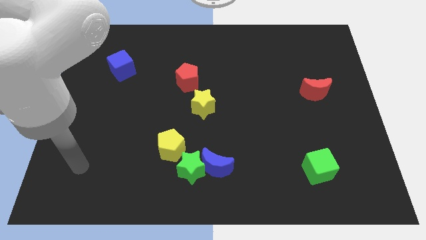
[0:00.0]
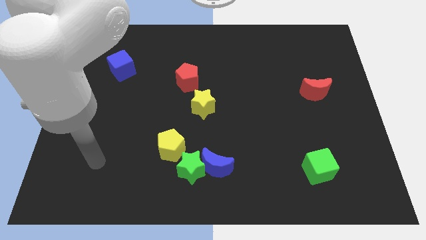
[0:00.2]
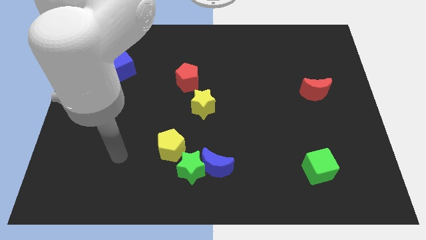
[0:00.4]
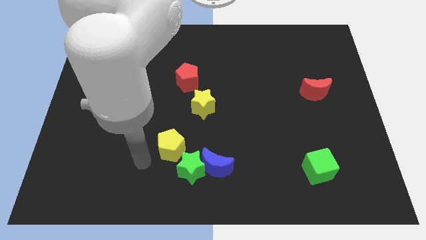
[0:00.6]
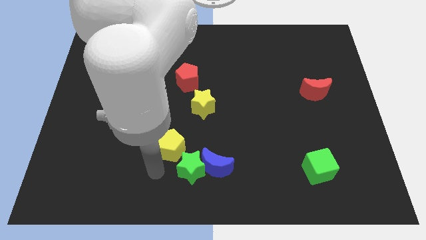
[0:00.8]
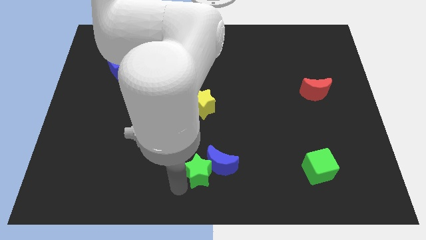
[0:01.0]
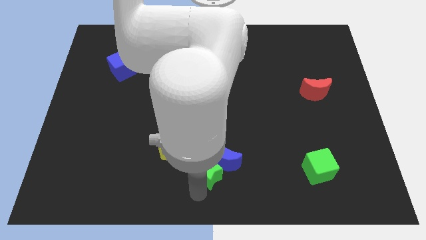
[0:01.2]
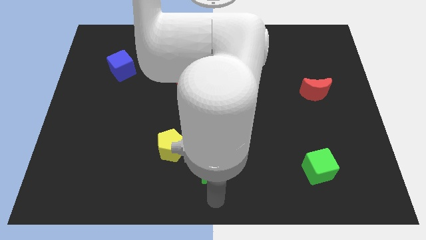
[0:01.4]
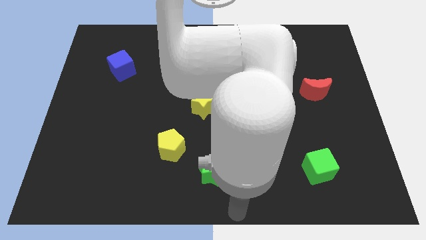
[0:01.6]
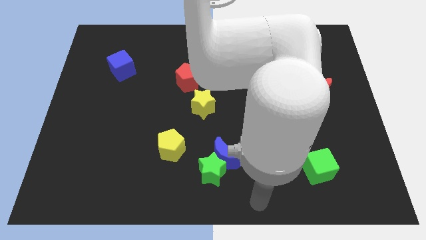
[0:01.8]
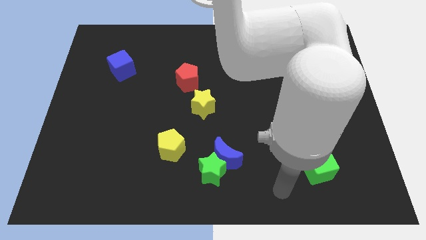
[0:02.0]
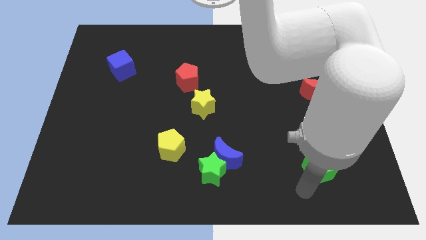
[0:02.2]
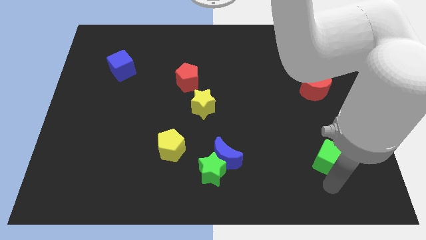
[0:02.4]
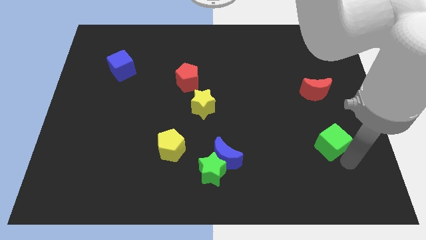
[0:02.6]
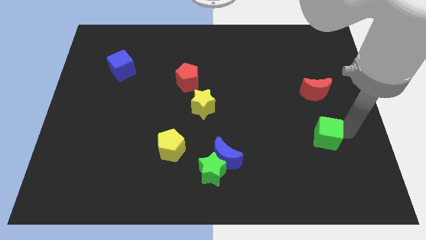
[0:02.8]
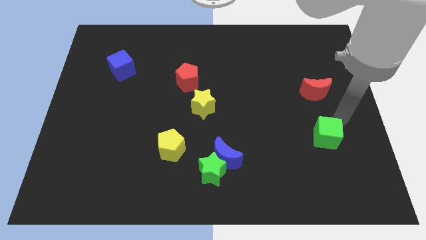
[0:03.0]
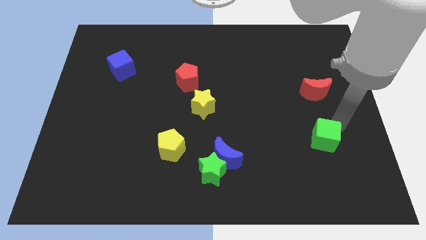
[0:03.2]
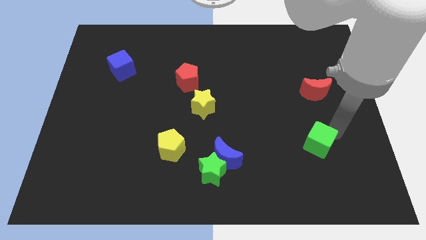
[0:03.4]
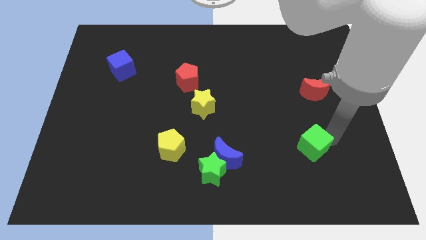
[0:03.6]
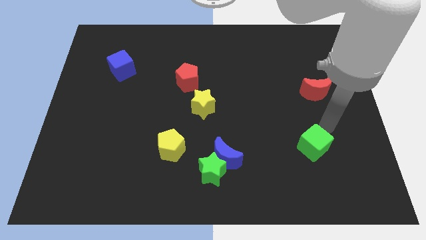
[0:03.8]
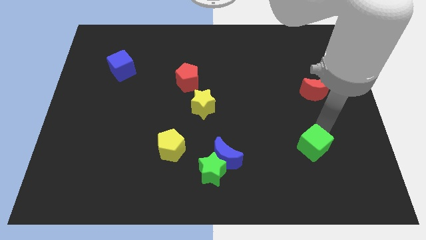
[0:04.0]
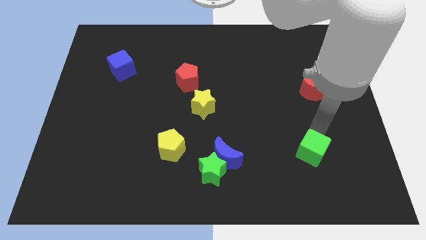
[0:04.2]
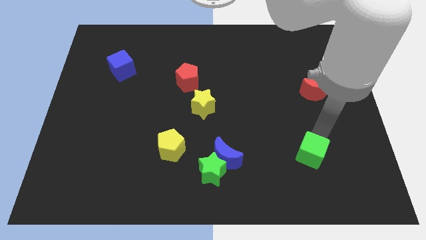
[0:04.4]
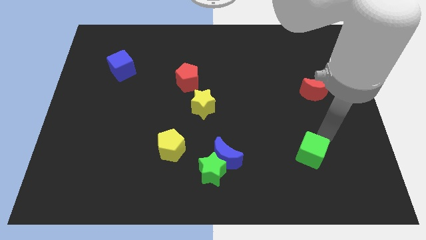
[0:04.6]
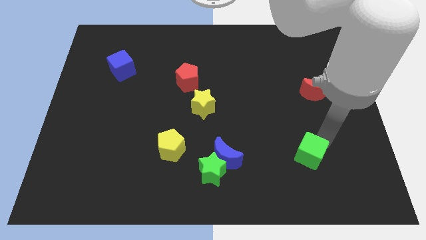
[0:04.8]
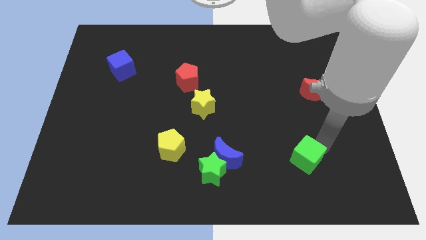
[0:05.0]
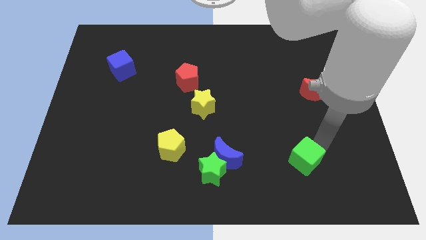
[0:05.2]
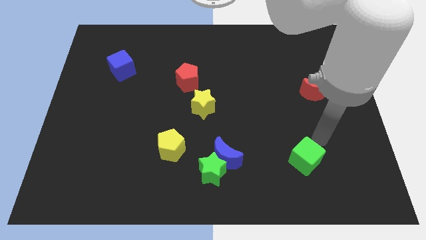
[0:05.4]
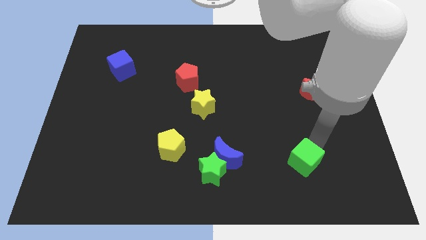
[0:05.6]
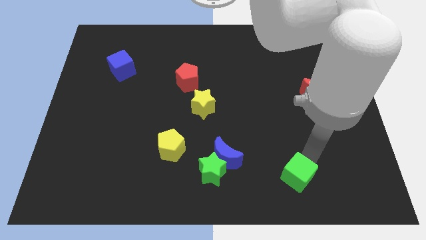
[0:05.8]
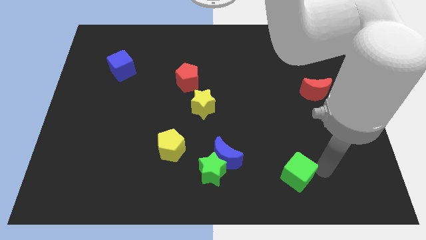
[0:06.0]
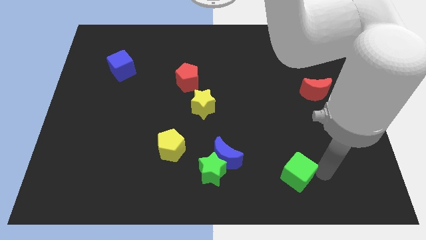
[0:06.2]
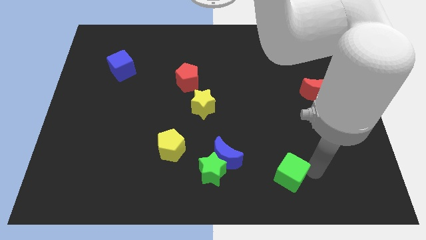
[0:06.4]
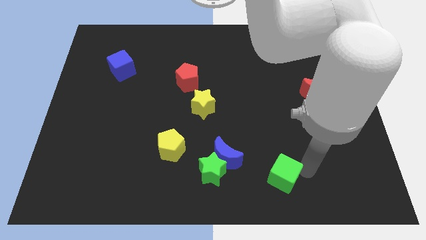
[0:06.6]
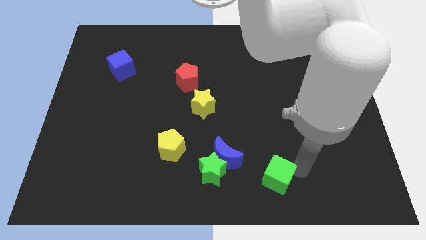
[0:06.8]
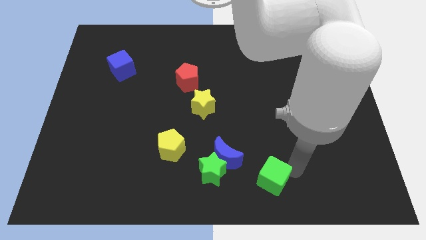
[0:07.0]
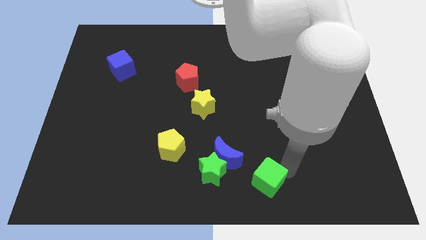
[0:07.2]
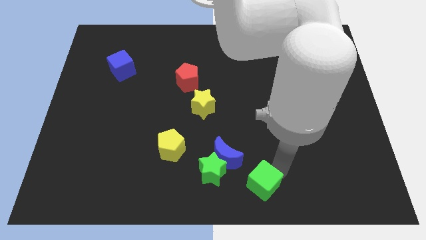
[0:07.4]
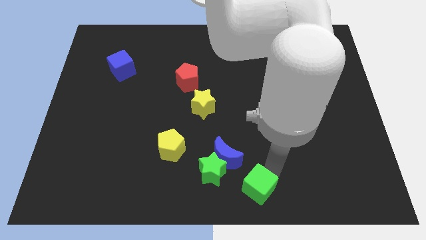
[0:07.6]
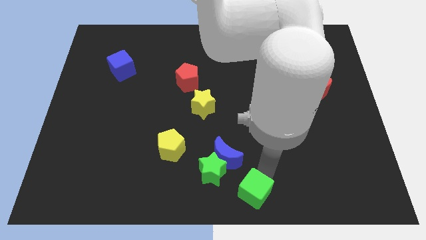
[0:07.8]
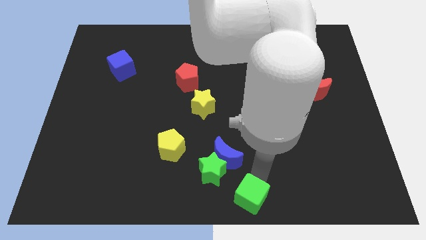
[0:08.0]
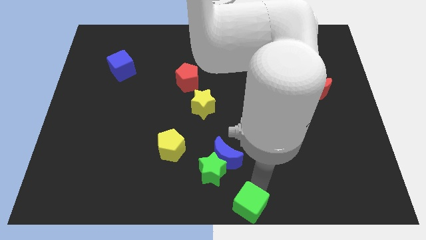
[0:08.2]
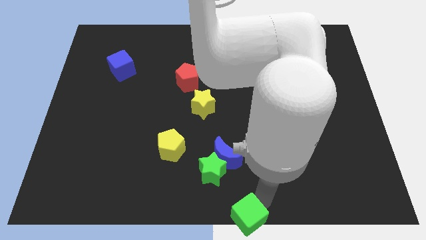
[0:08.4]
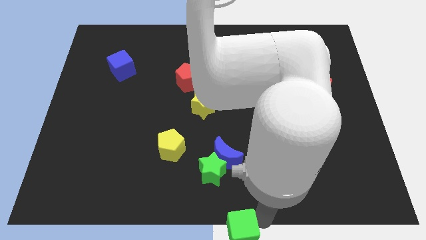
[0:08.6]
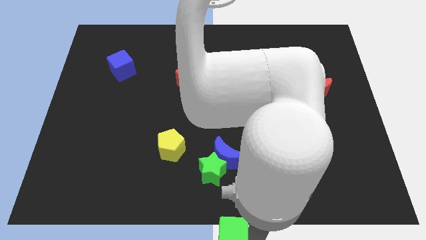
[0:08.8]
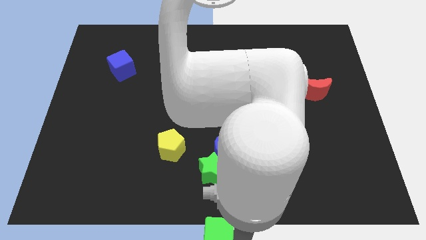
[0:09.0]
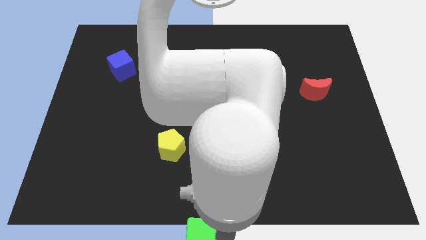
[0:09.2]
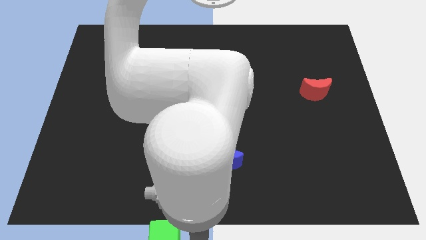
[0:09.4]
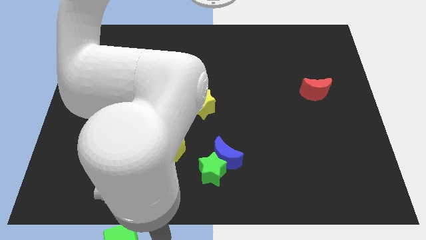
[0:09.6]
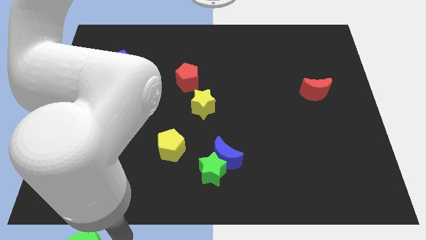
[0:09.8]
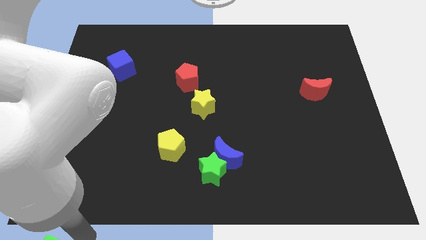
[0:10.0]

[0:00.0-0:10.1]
slide the green cube to the bottom left corner

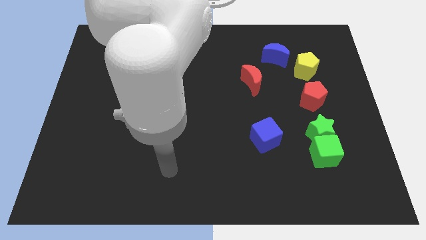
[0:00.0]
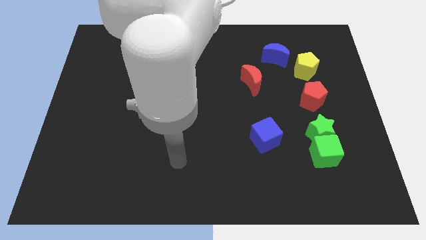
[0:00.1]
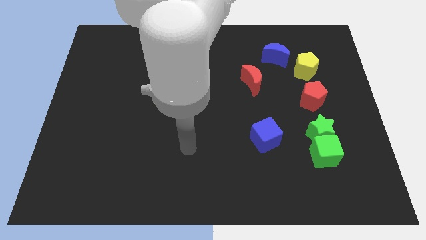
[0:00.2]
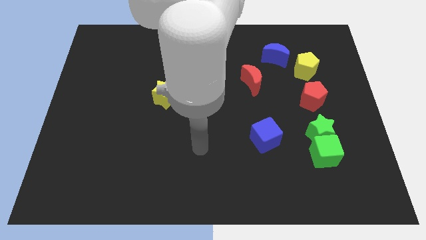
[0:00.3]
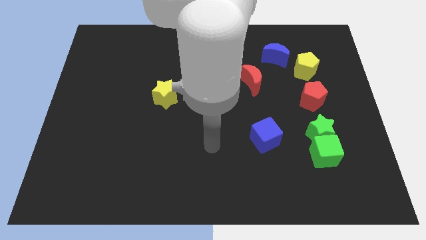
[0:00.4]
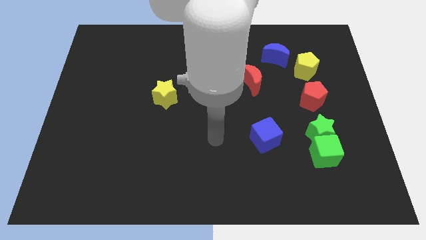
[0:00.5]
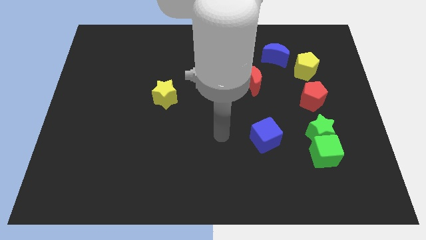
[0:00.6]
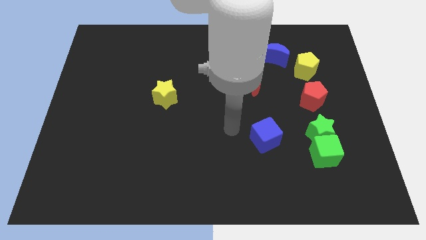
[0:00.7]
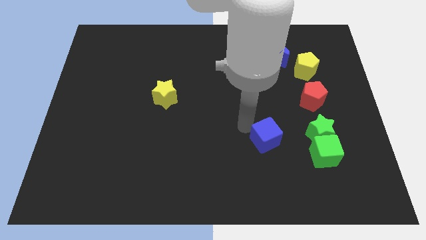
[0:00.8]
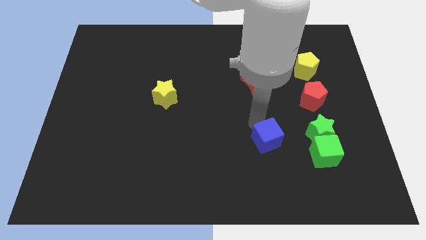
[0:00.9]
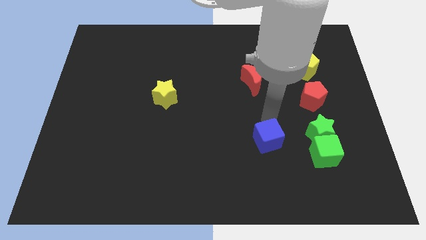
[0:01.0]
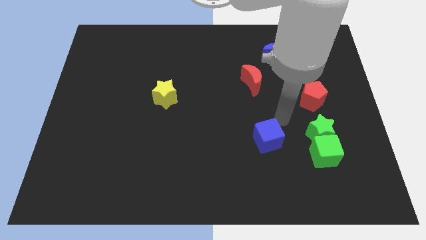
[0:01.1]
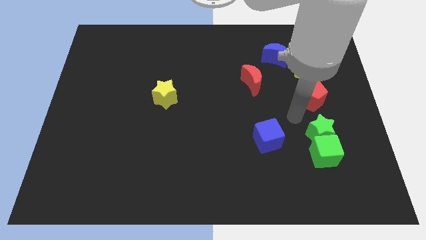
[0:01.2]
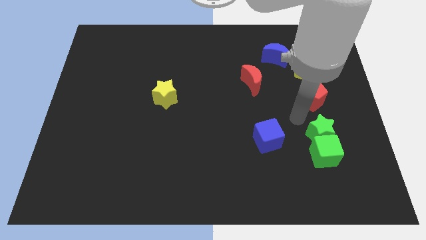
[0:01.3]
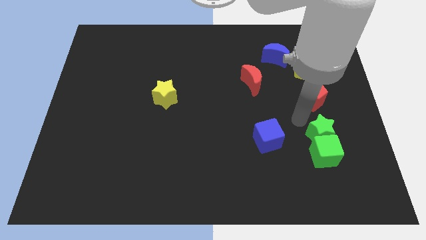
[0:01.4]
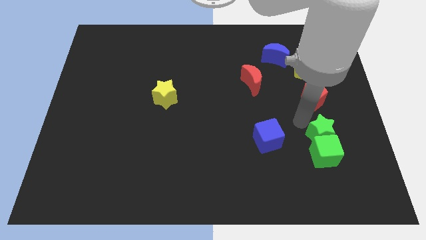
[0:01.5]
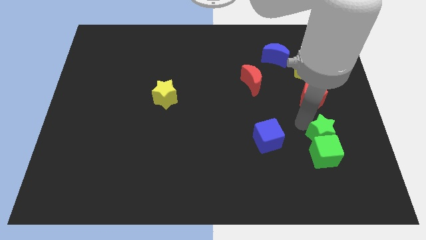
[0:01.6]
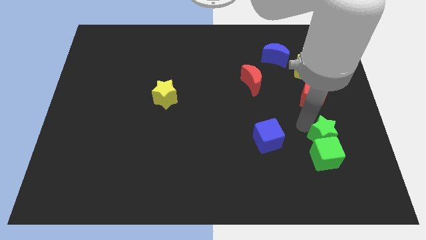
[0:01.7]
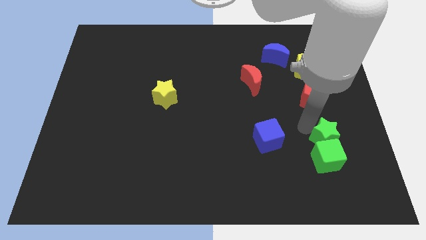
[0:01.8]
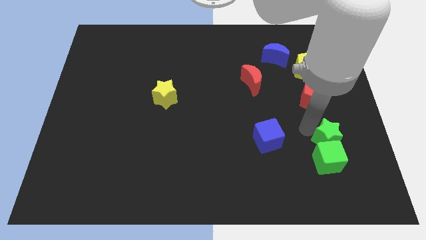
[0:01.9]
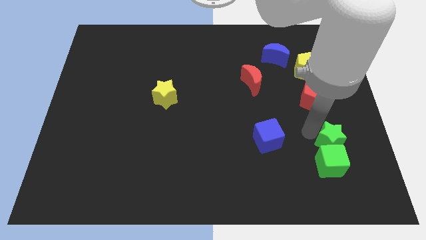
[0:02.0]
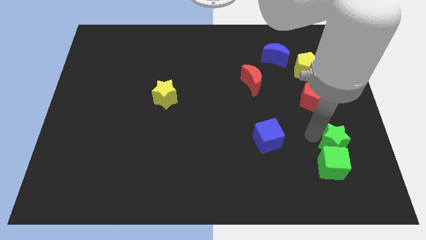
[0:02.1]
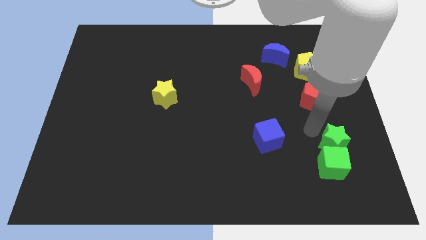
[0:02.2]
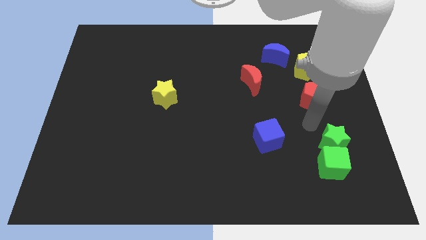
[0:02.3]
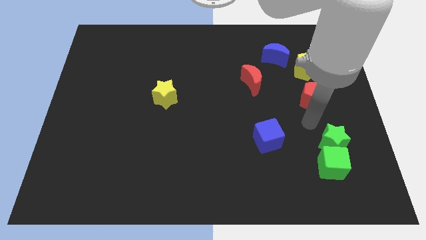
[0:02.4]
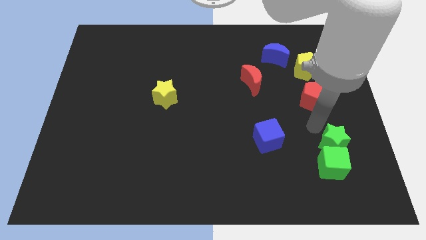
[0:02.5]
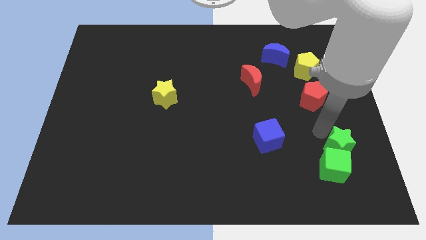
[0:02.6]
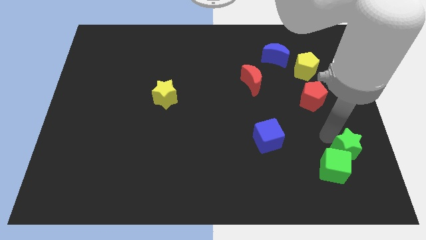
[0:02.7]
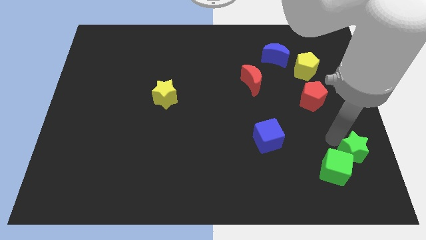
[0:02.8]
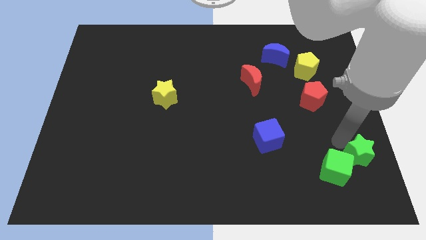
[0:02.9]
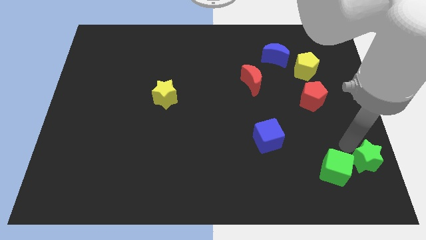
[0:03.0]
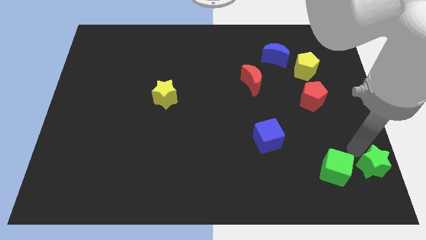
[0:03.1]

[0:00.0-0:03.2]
put the green star to the bottom right corner
